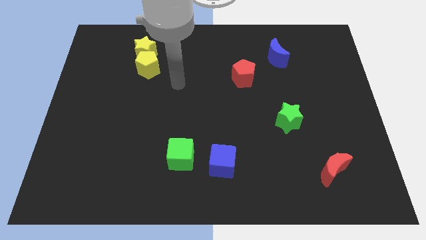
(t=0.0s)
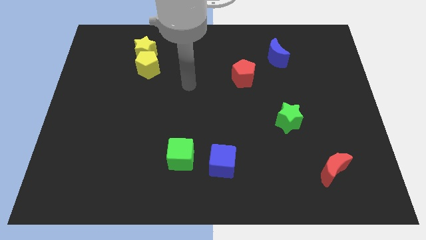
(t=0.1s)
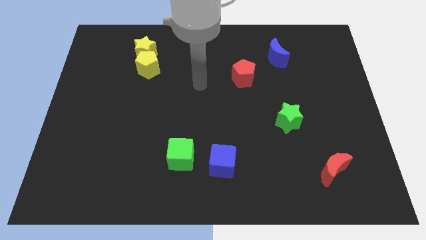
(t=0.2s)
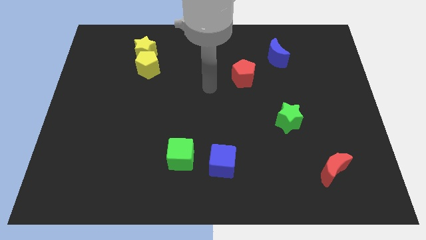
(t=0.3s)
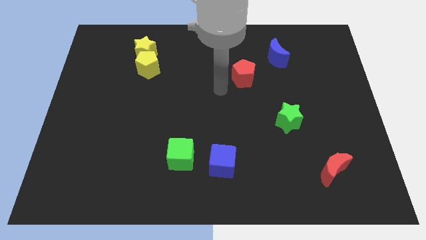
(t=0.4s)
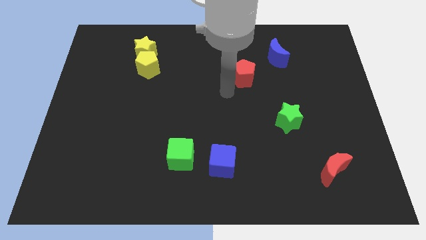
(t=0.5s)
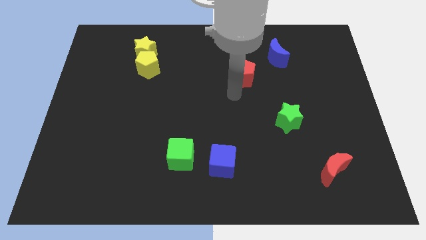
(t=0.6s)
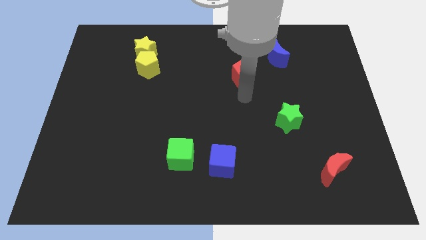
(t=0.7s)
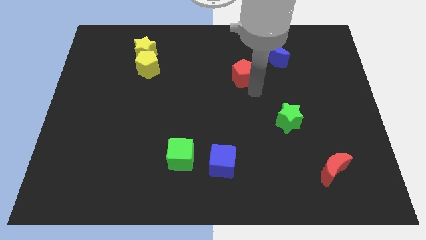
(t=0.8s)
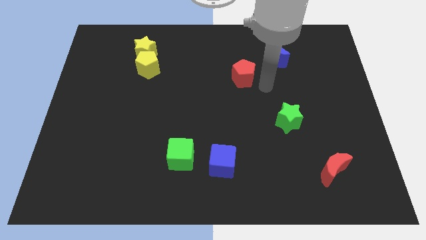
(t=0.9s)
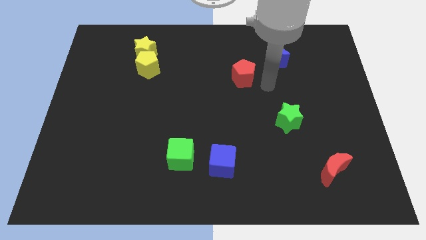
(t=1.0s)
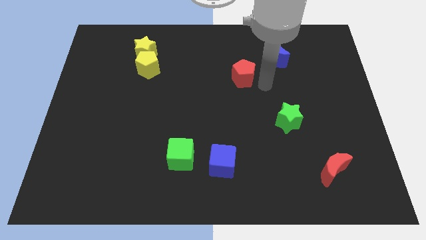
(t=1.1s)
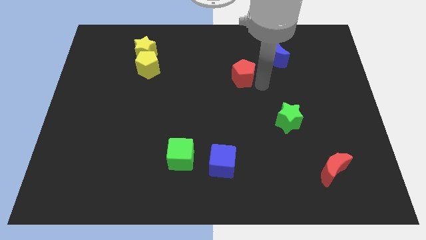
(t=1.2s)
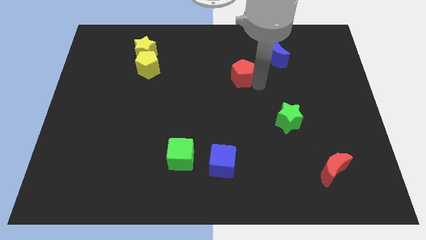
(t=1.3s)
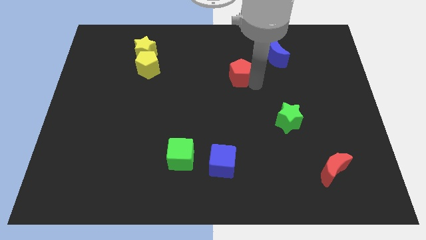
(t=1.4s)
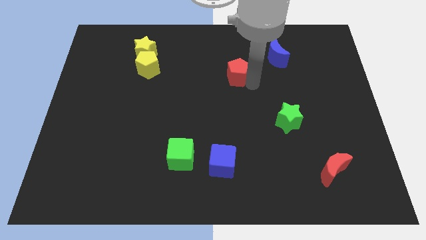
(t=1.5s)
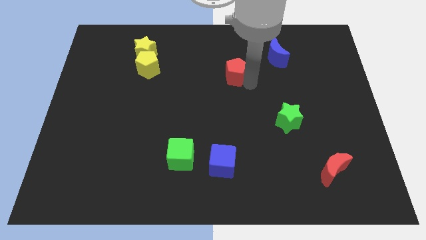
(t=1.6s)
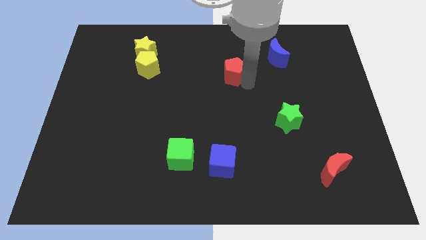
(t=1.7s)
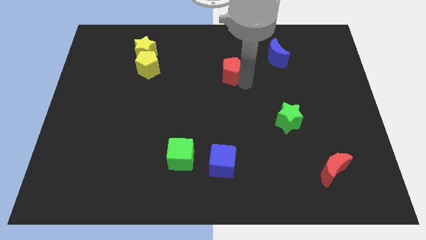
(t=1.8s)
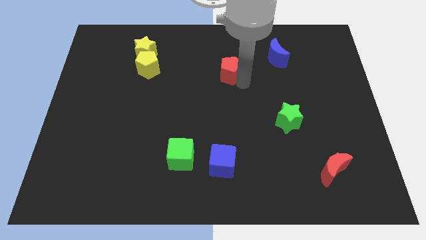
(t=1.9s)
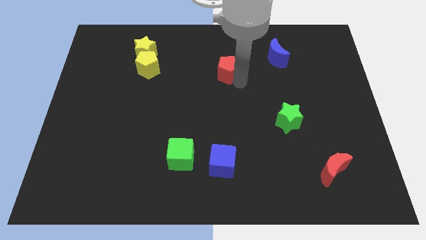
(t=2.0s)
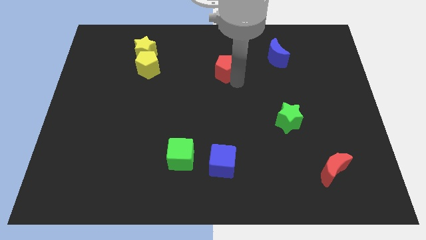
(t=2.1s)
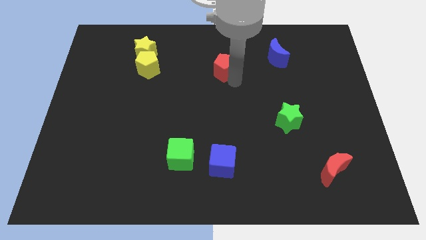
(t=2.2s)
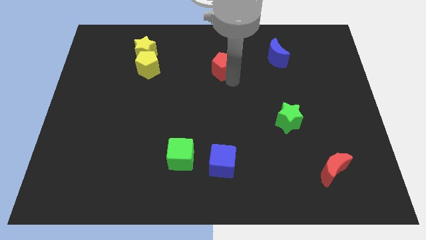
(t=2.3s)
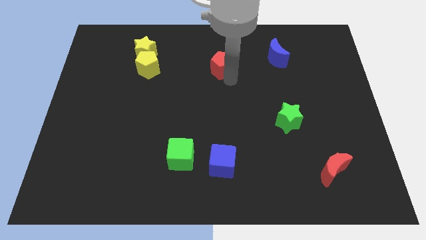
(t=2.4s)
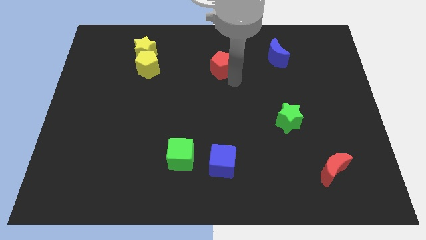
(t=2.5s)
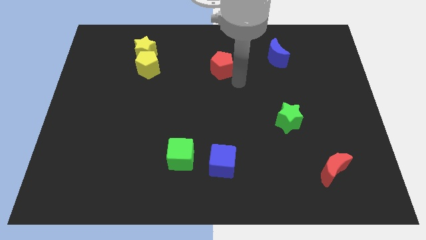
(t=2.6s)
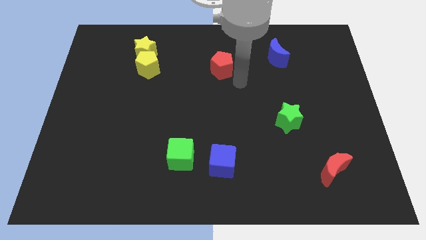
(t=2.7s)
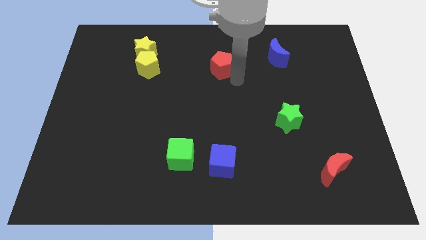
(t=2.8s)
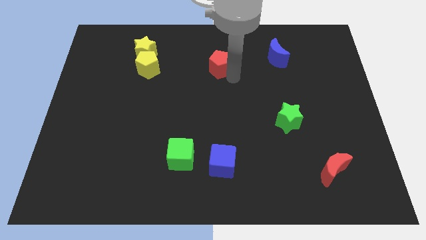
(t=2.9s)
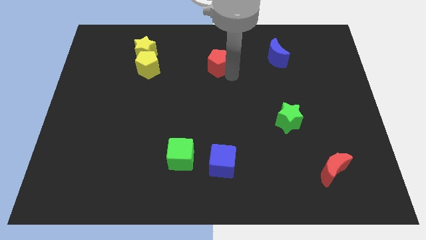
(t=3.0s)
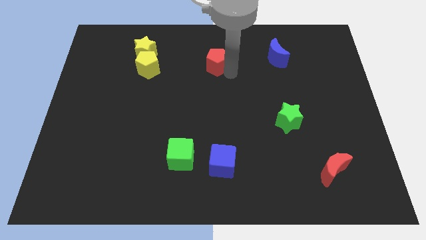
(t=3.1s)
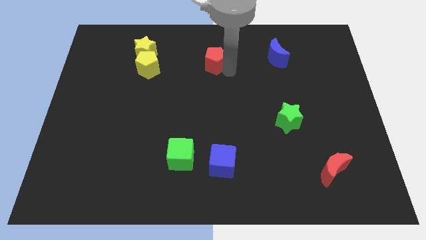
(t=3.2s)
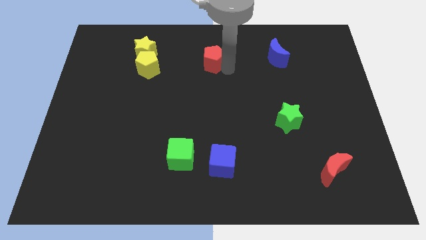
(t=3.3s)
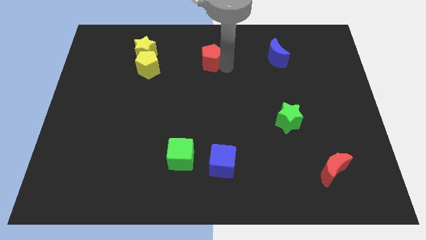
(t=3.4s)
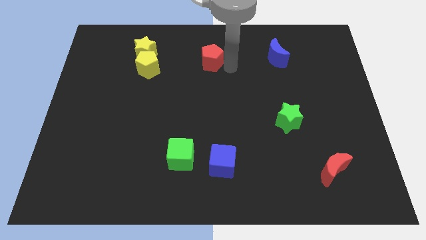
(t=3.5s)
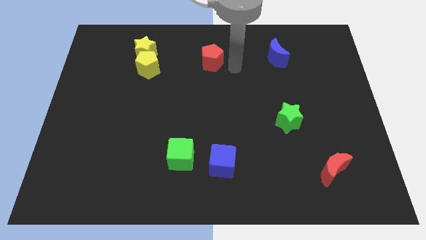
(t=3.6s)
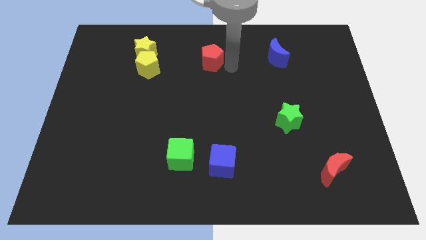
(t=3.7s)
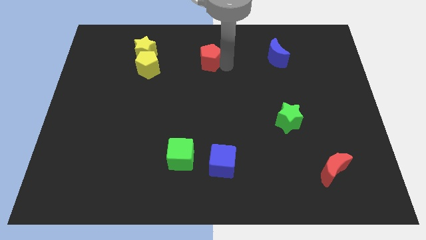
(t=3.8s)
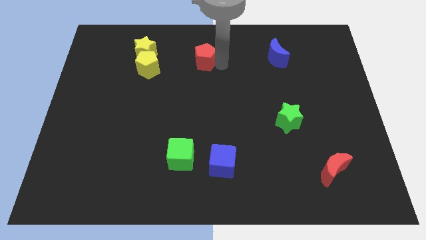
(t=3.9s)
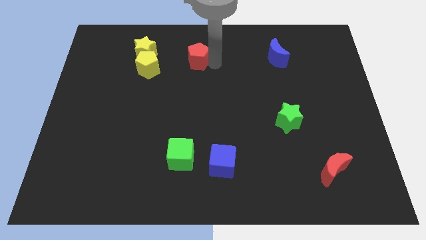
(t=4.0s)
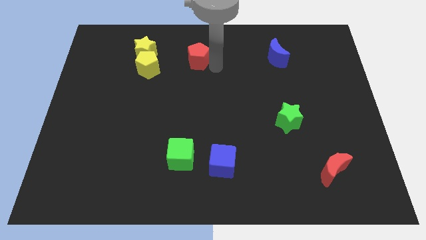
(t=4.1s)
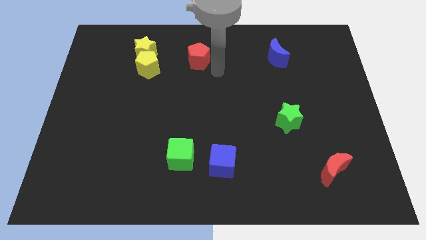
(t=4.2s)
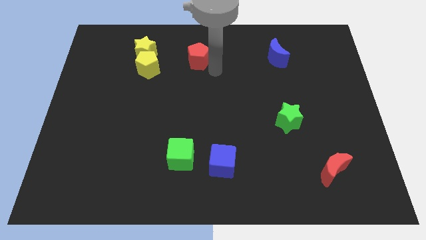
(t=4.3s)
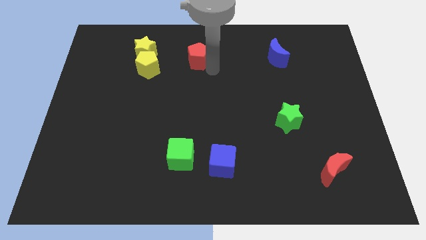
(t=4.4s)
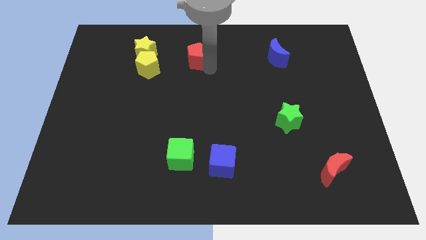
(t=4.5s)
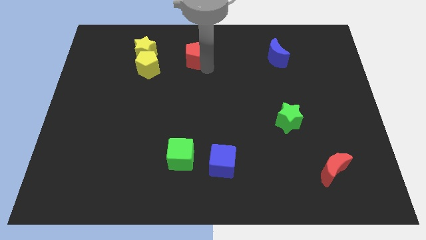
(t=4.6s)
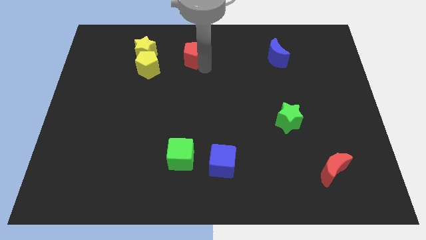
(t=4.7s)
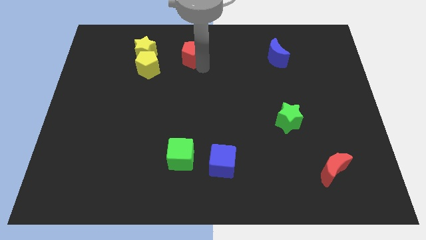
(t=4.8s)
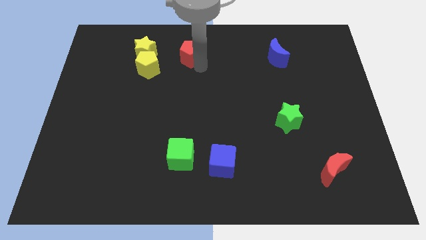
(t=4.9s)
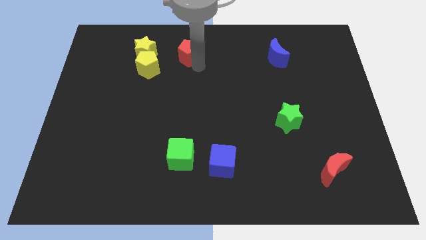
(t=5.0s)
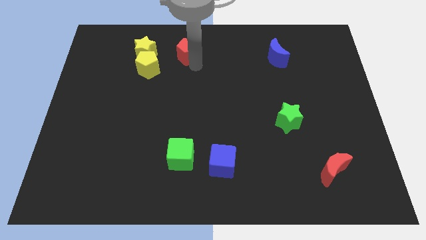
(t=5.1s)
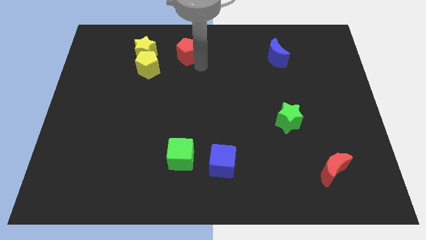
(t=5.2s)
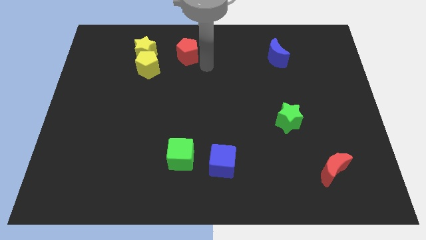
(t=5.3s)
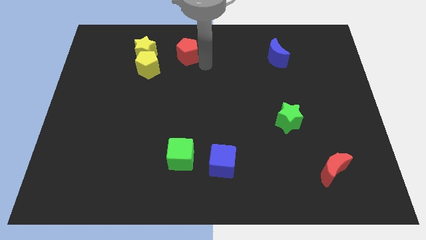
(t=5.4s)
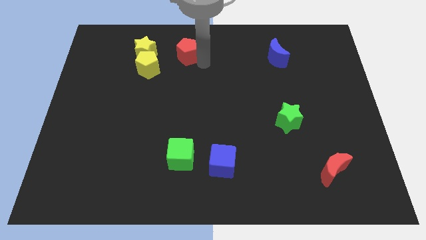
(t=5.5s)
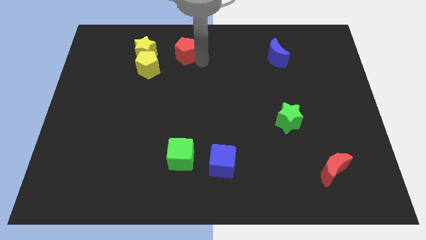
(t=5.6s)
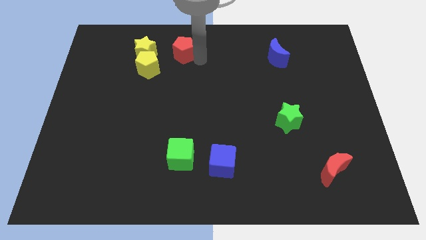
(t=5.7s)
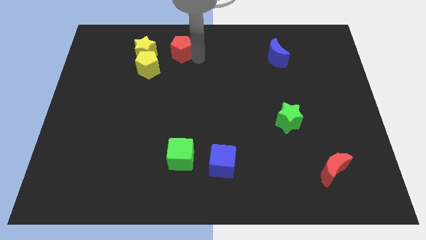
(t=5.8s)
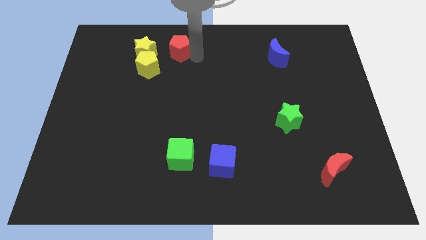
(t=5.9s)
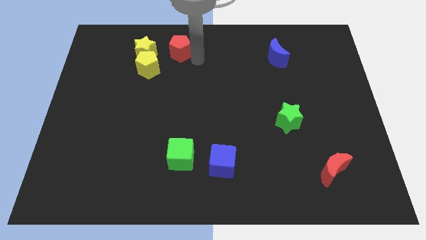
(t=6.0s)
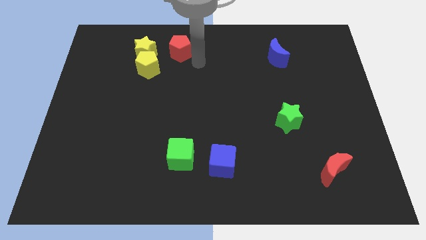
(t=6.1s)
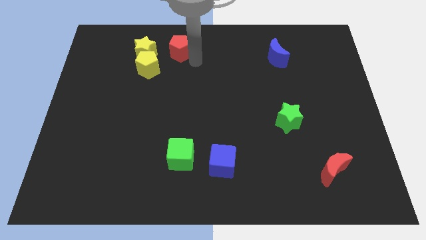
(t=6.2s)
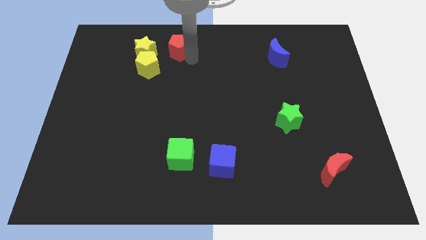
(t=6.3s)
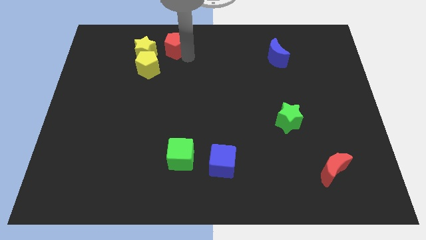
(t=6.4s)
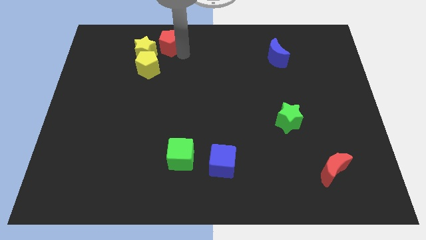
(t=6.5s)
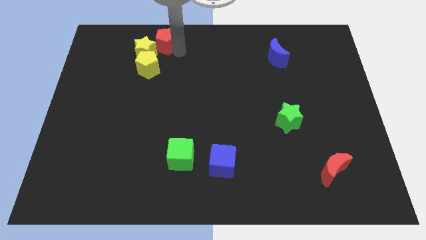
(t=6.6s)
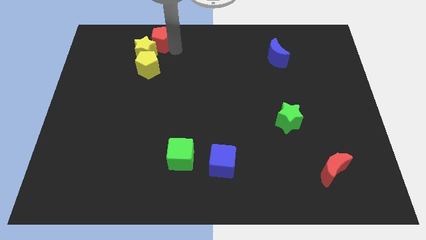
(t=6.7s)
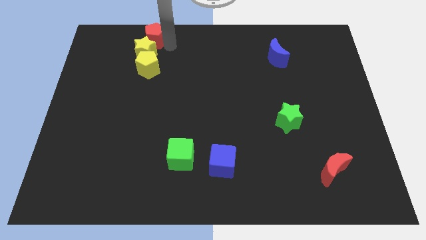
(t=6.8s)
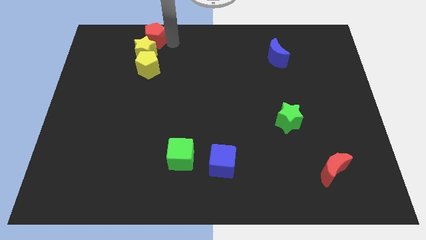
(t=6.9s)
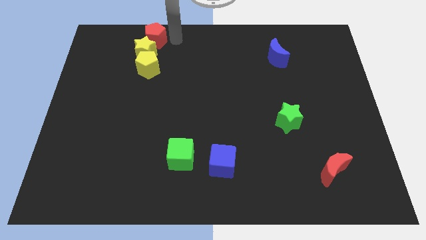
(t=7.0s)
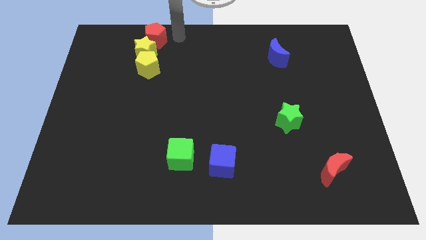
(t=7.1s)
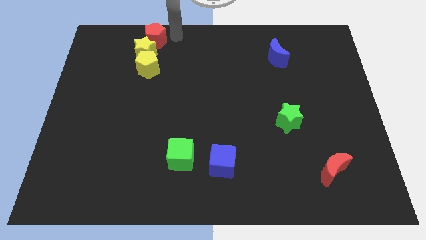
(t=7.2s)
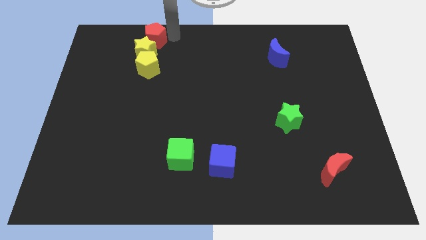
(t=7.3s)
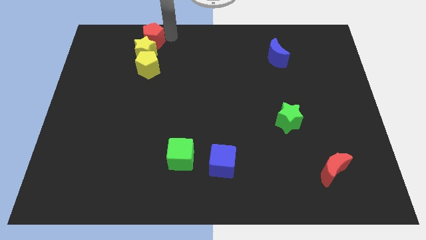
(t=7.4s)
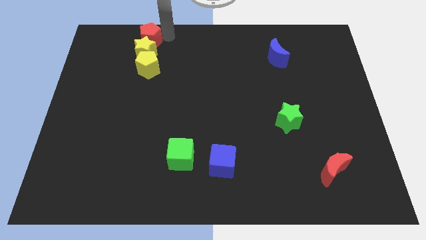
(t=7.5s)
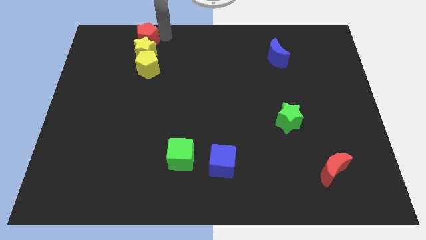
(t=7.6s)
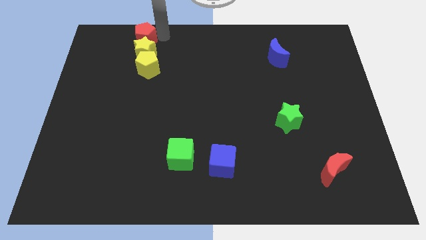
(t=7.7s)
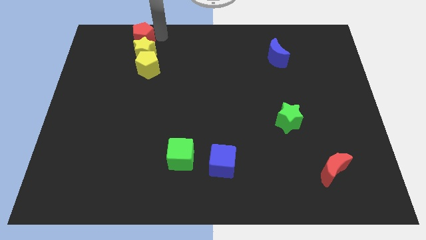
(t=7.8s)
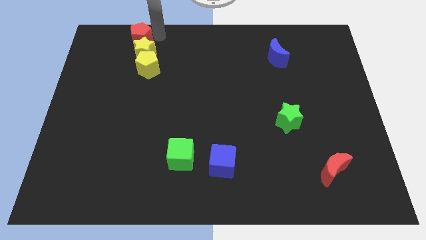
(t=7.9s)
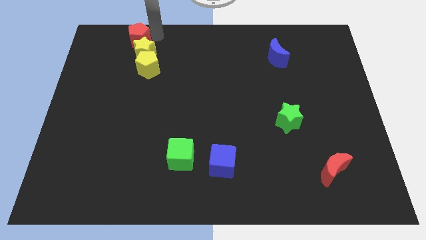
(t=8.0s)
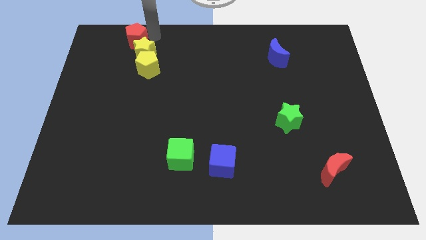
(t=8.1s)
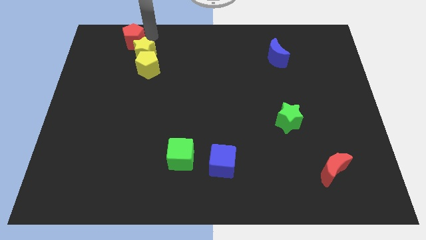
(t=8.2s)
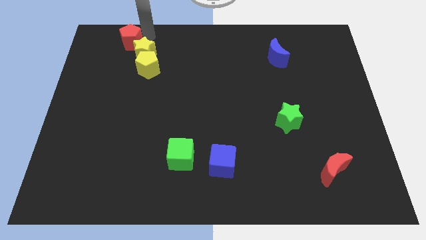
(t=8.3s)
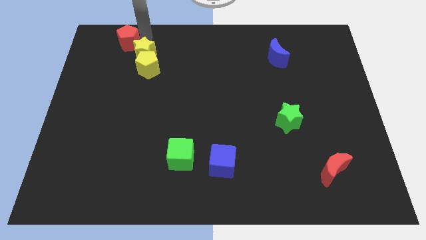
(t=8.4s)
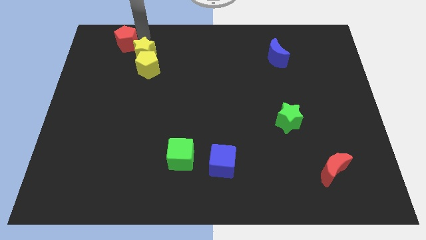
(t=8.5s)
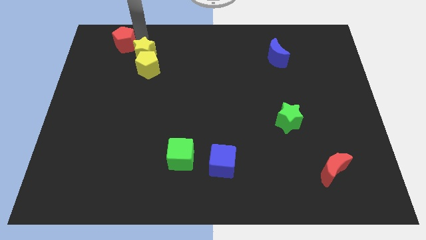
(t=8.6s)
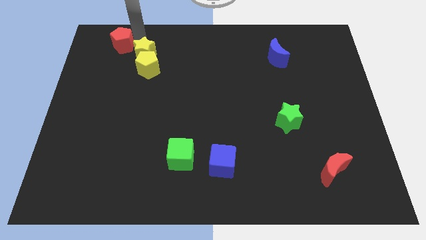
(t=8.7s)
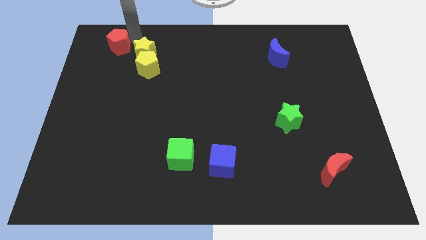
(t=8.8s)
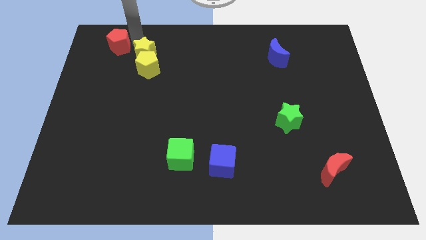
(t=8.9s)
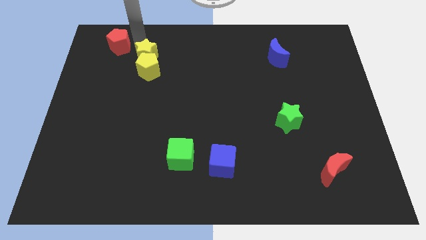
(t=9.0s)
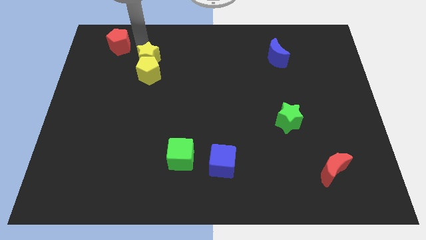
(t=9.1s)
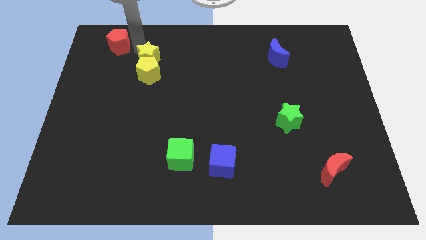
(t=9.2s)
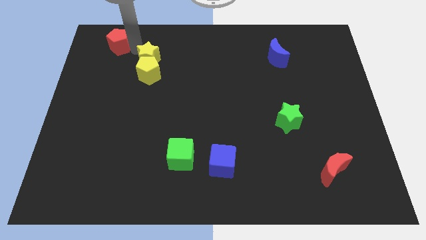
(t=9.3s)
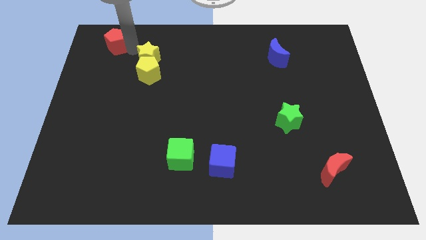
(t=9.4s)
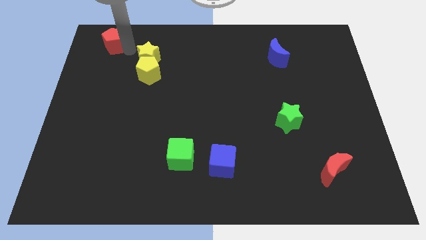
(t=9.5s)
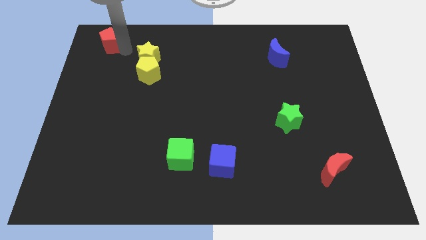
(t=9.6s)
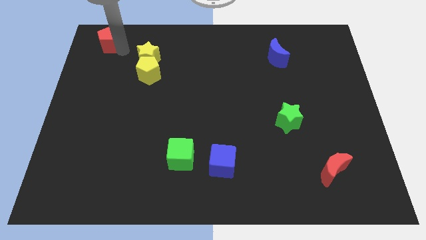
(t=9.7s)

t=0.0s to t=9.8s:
slide the red pentagon to the top left
